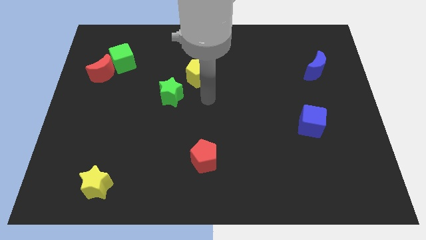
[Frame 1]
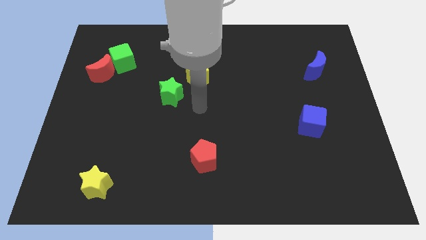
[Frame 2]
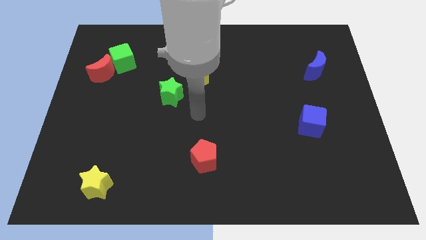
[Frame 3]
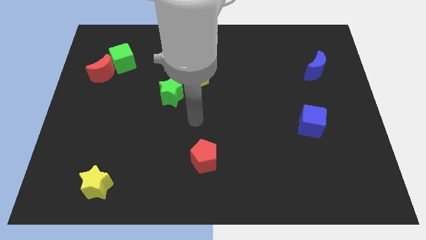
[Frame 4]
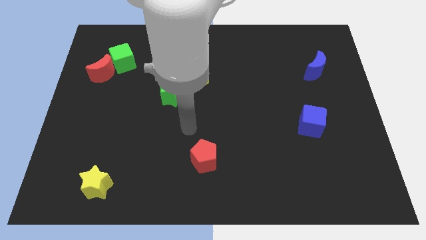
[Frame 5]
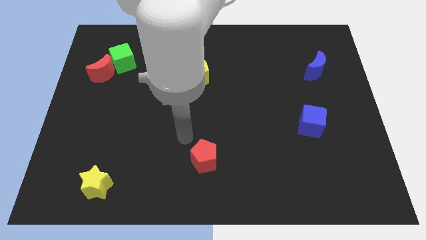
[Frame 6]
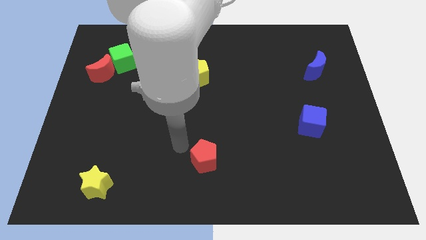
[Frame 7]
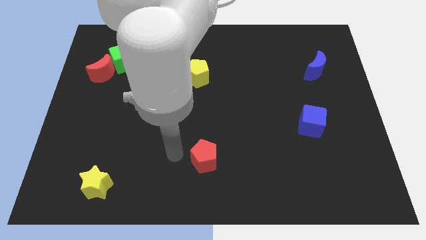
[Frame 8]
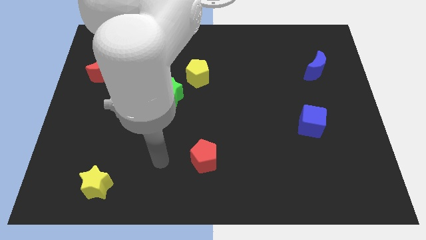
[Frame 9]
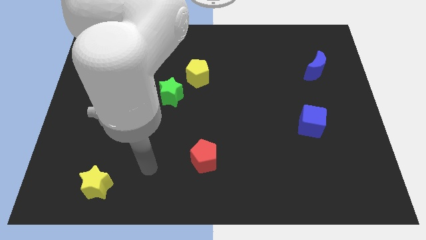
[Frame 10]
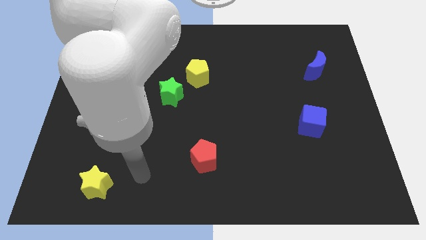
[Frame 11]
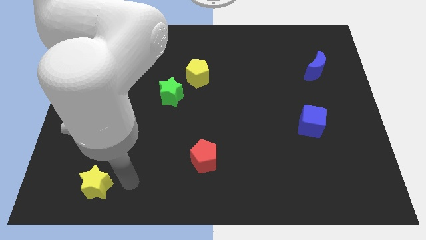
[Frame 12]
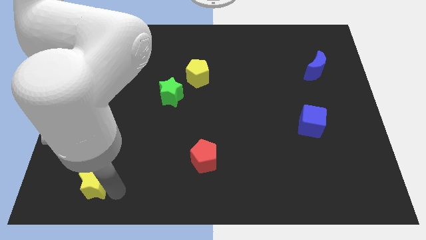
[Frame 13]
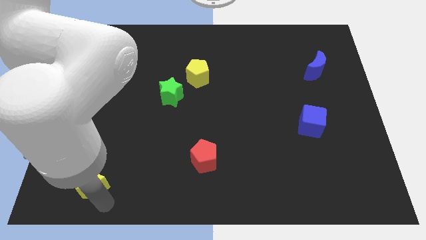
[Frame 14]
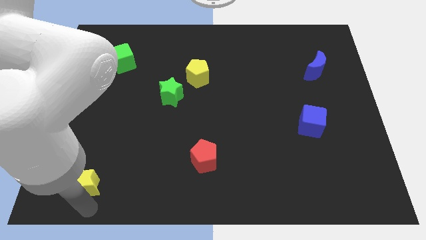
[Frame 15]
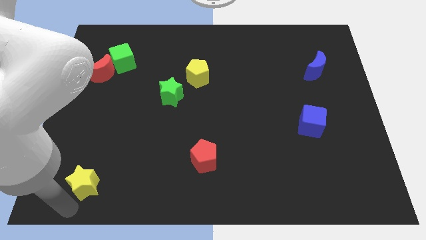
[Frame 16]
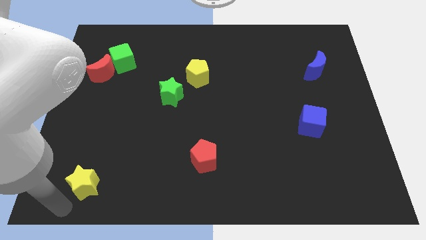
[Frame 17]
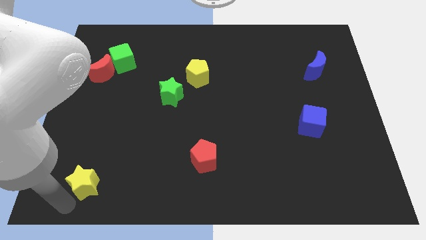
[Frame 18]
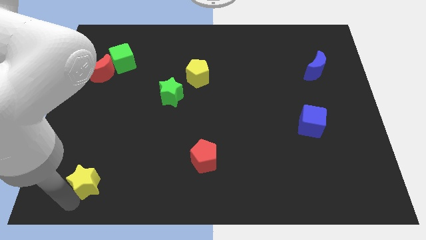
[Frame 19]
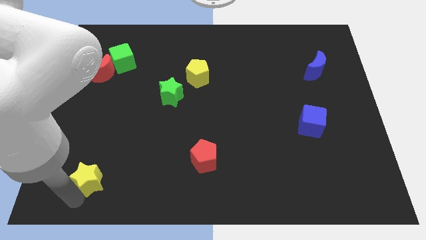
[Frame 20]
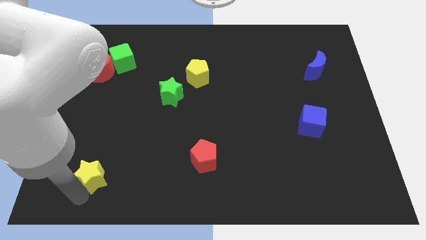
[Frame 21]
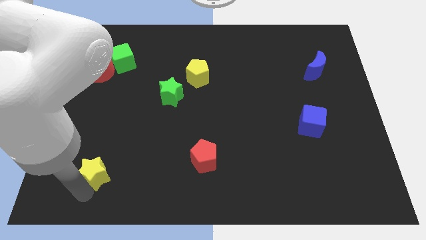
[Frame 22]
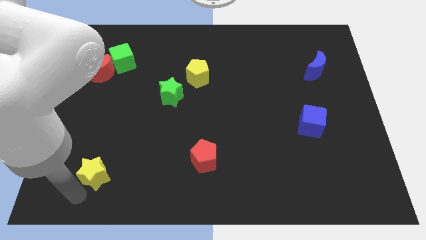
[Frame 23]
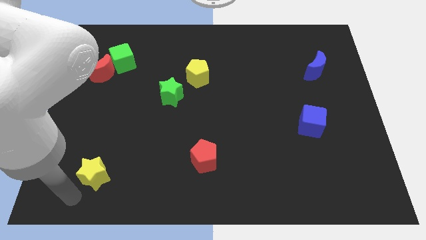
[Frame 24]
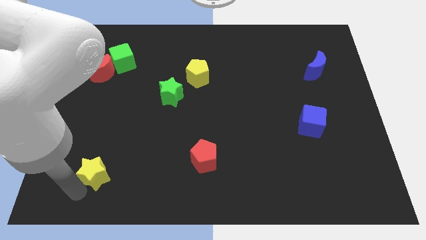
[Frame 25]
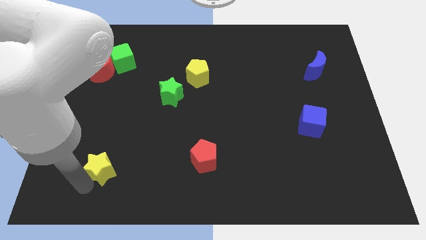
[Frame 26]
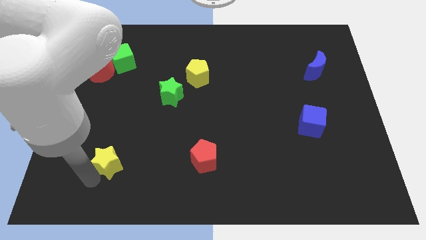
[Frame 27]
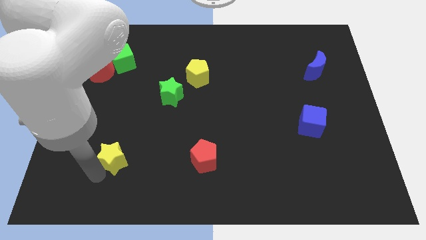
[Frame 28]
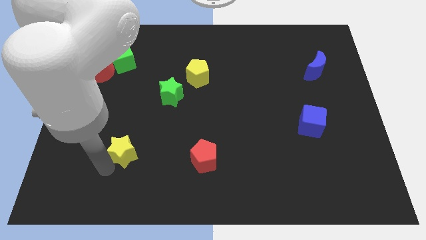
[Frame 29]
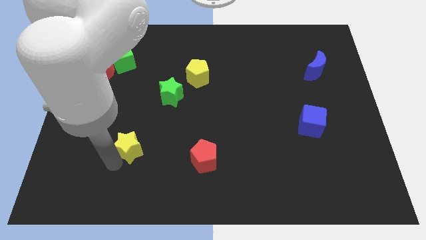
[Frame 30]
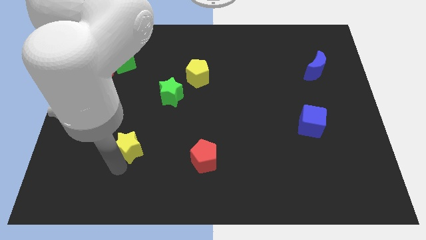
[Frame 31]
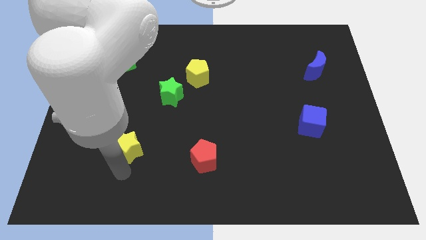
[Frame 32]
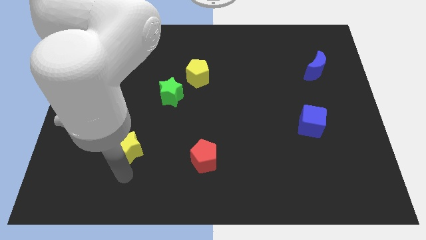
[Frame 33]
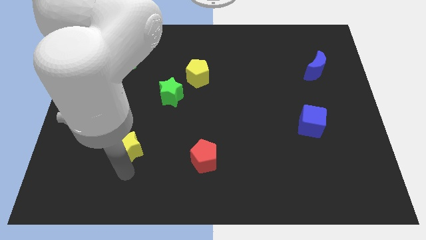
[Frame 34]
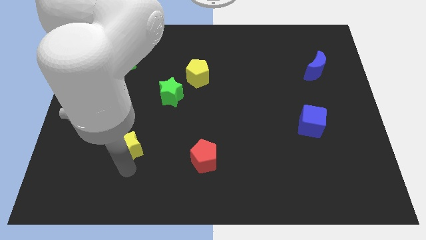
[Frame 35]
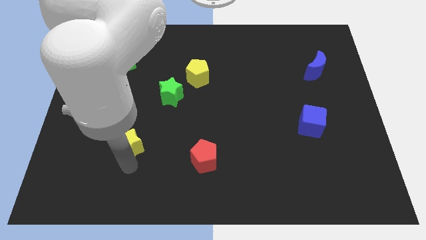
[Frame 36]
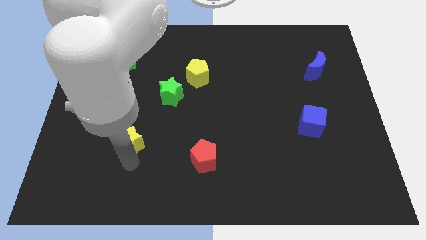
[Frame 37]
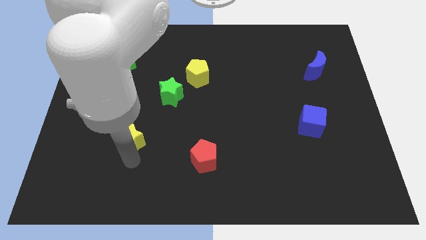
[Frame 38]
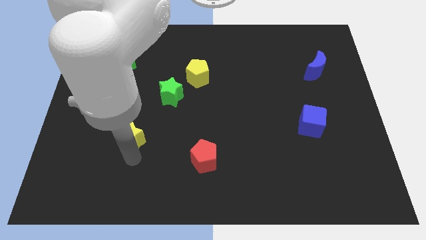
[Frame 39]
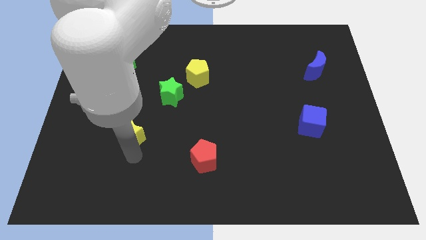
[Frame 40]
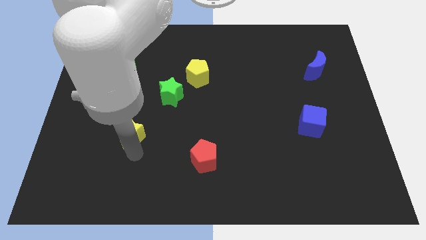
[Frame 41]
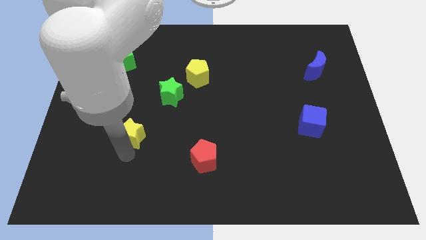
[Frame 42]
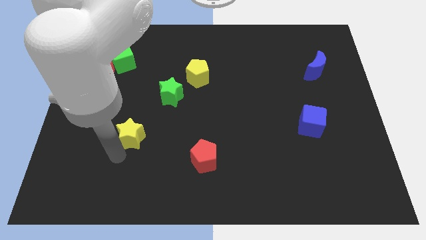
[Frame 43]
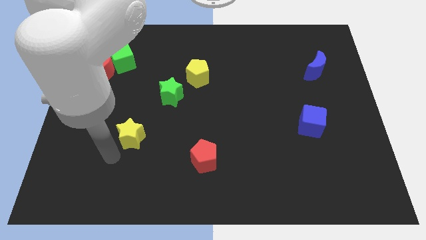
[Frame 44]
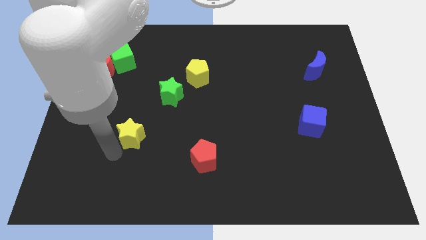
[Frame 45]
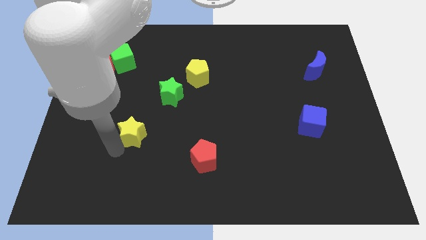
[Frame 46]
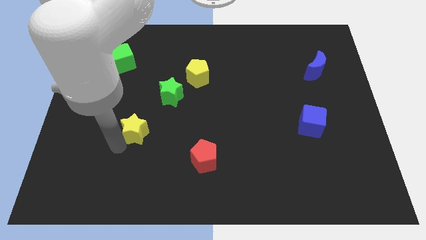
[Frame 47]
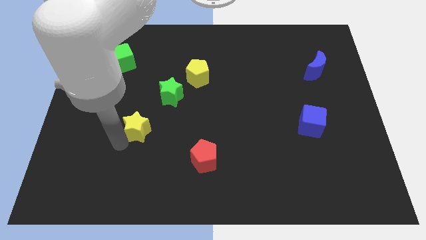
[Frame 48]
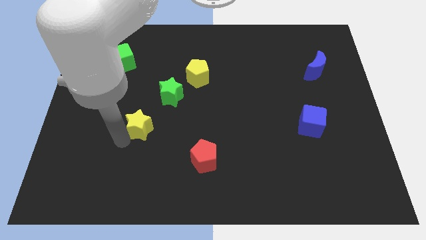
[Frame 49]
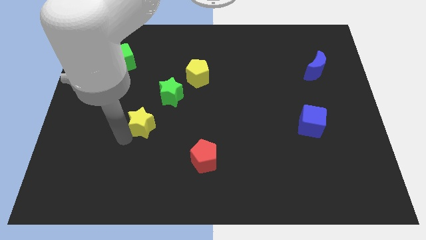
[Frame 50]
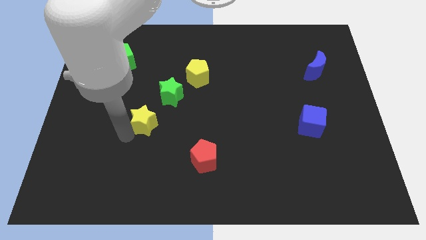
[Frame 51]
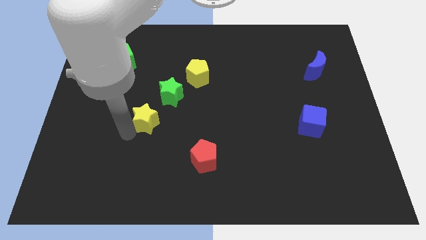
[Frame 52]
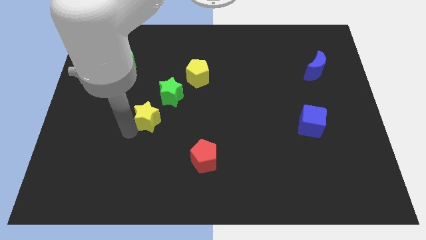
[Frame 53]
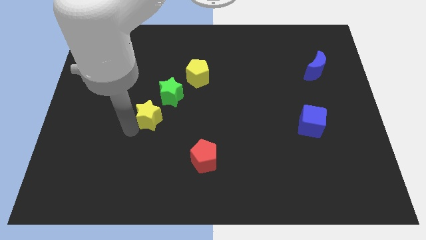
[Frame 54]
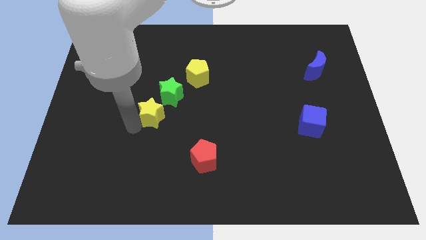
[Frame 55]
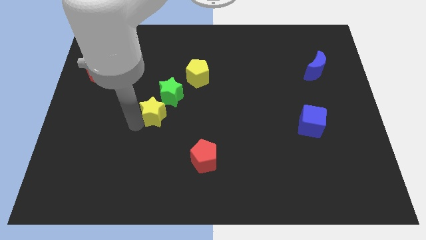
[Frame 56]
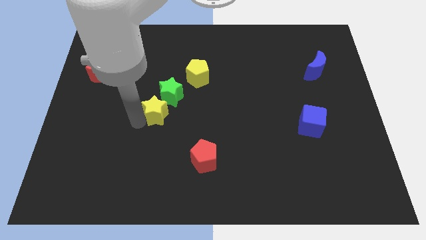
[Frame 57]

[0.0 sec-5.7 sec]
slide the yellow star close to the green star

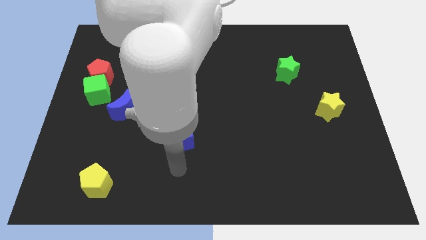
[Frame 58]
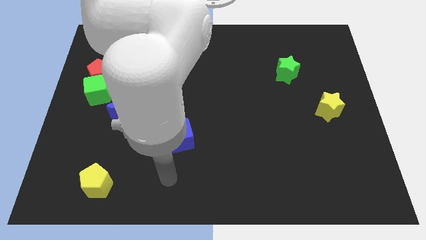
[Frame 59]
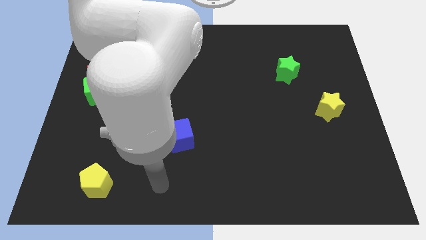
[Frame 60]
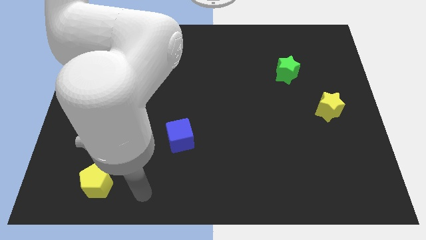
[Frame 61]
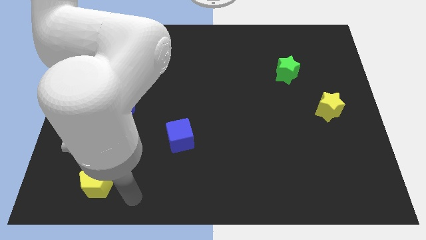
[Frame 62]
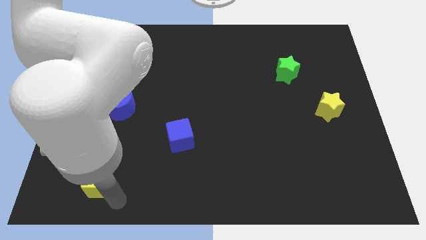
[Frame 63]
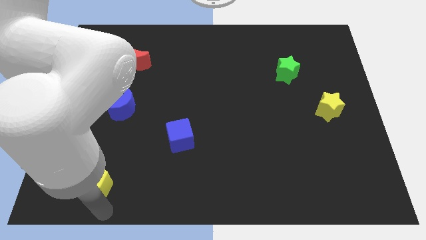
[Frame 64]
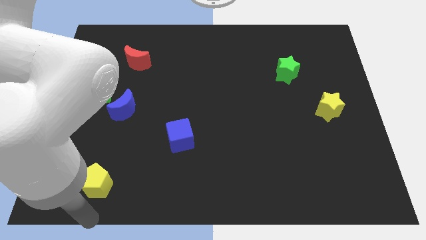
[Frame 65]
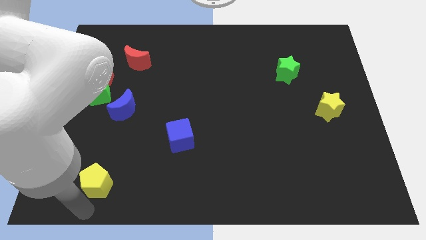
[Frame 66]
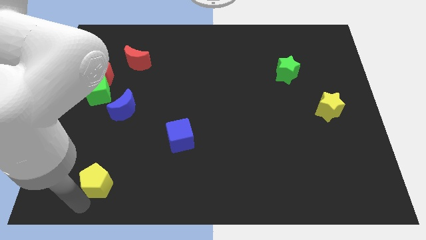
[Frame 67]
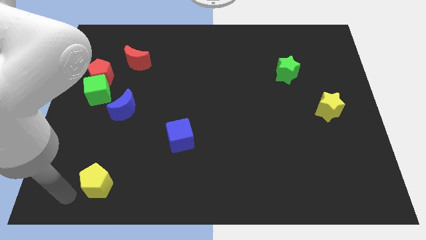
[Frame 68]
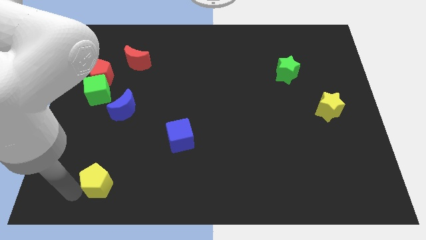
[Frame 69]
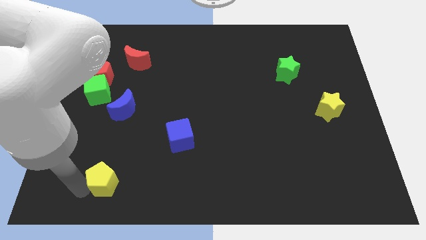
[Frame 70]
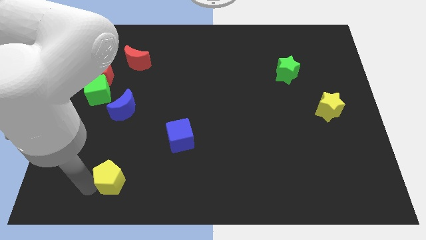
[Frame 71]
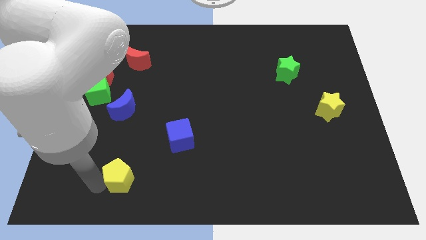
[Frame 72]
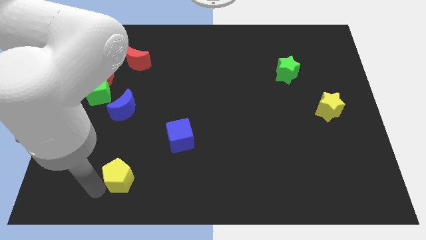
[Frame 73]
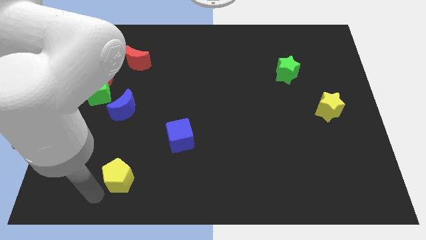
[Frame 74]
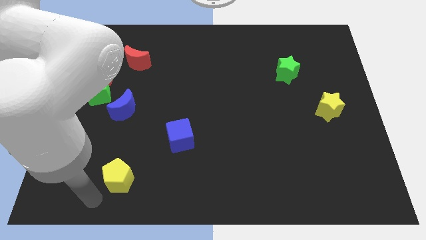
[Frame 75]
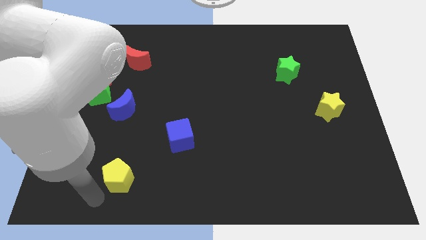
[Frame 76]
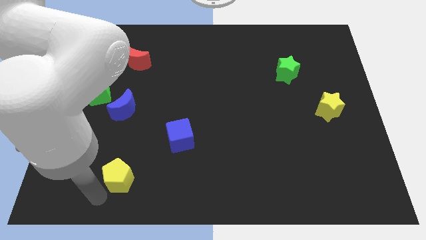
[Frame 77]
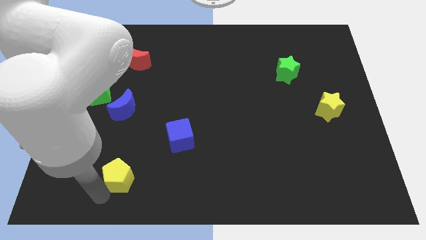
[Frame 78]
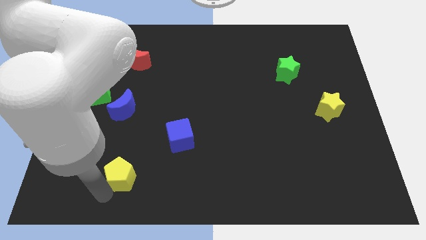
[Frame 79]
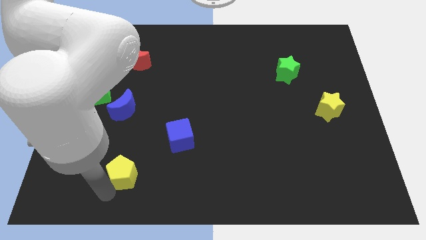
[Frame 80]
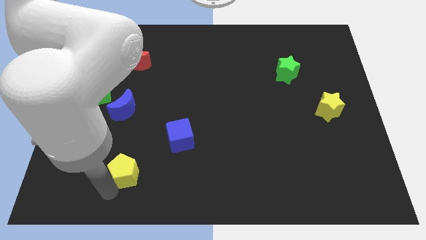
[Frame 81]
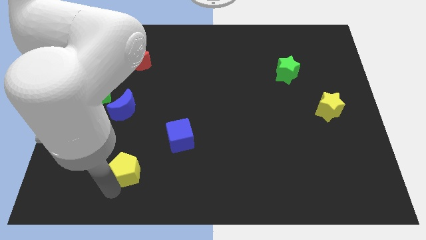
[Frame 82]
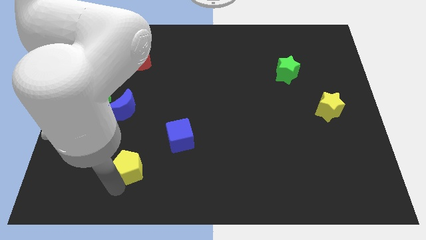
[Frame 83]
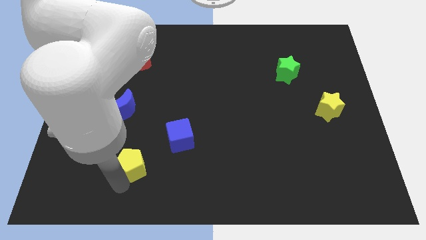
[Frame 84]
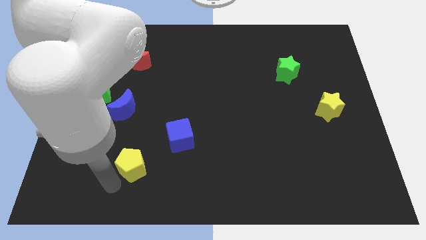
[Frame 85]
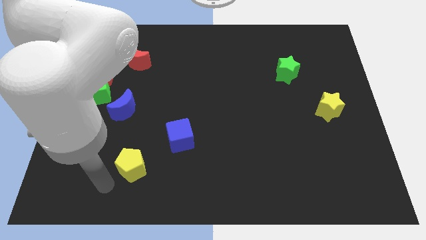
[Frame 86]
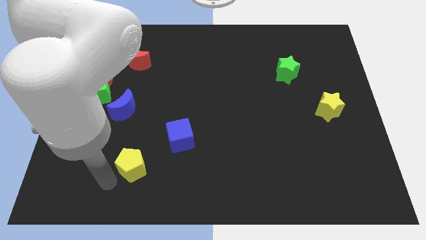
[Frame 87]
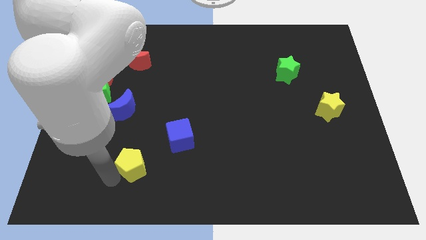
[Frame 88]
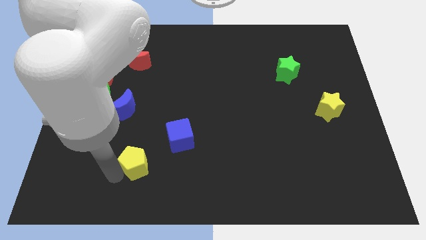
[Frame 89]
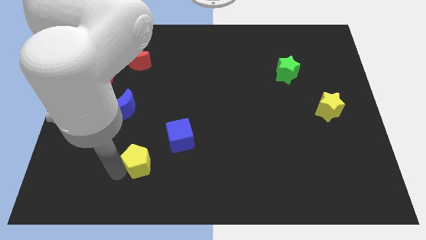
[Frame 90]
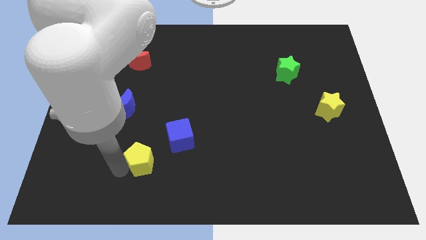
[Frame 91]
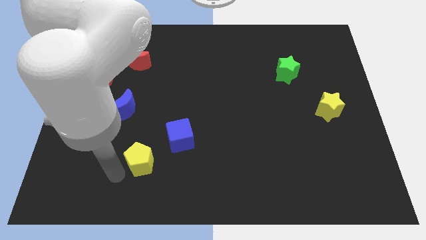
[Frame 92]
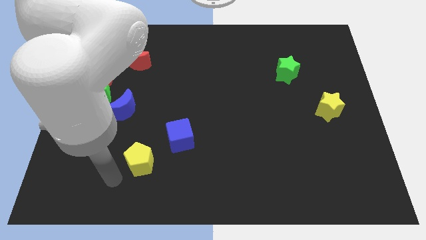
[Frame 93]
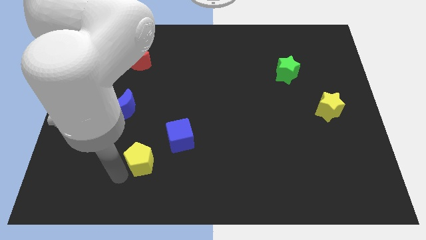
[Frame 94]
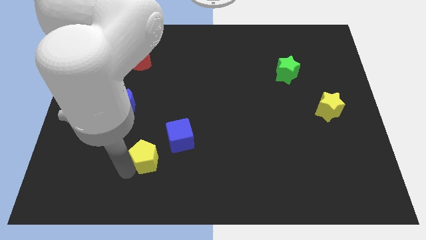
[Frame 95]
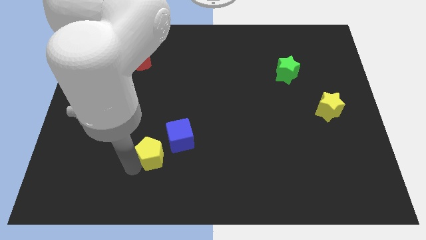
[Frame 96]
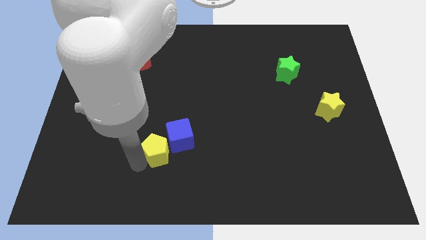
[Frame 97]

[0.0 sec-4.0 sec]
slide the yellow pentagon next to the blue cube
